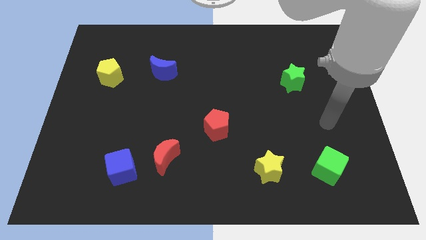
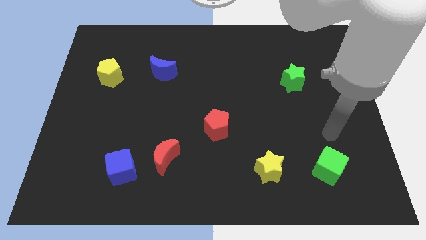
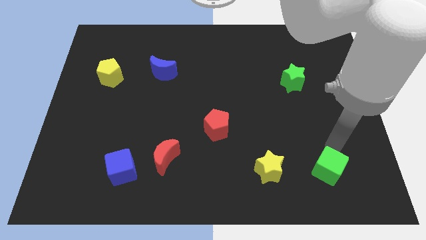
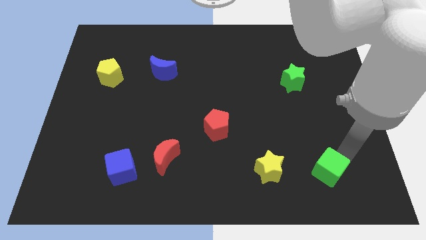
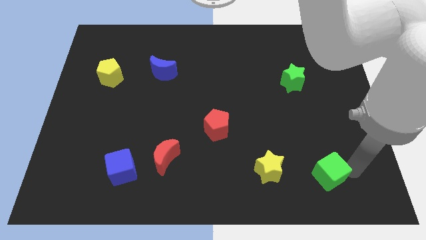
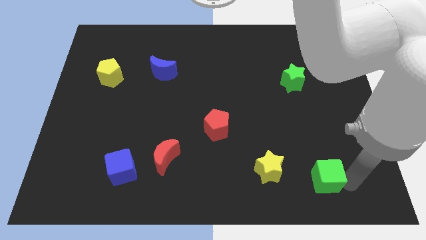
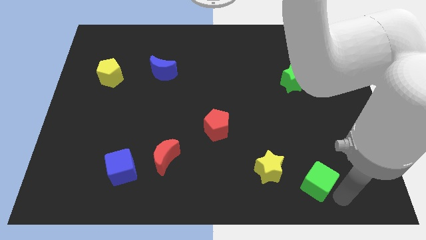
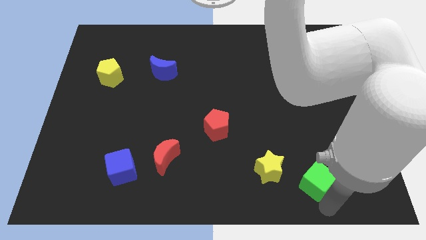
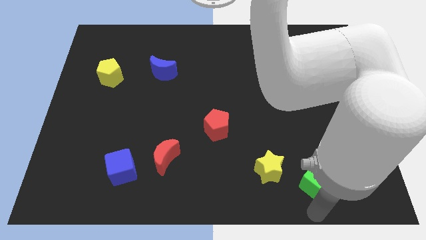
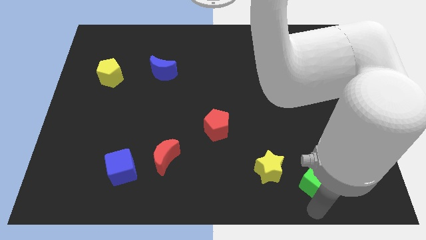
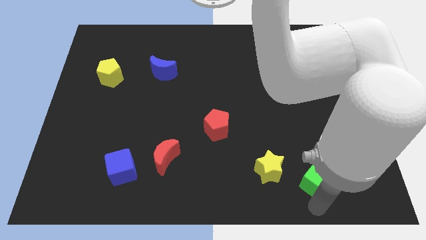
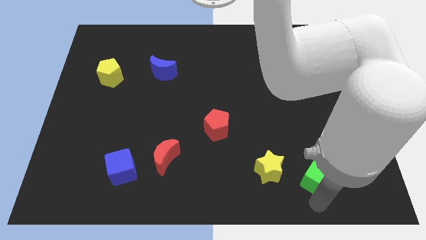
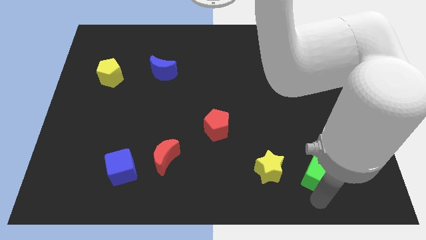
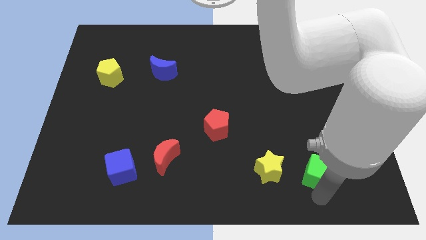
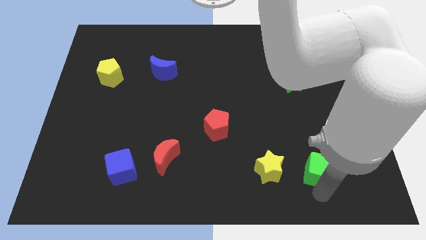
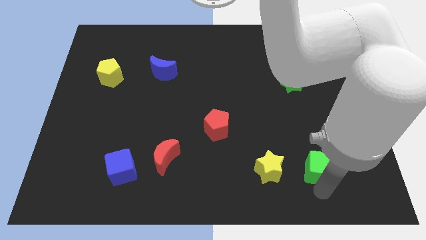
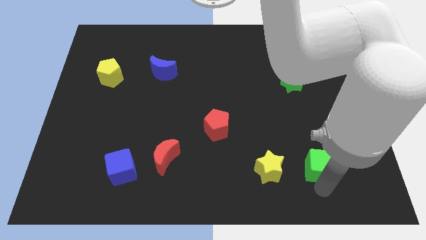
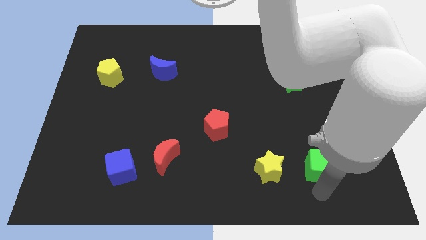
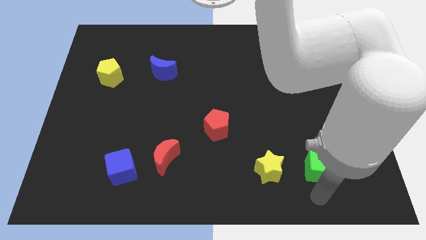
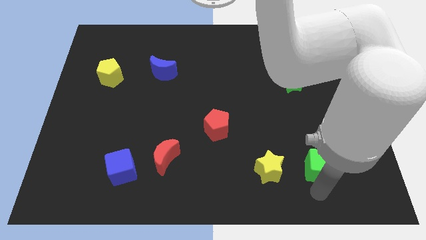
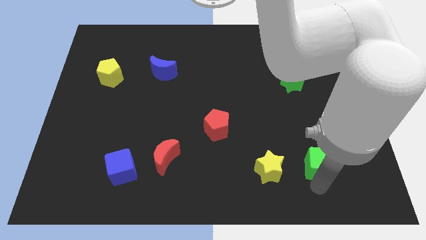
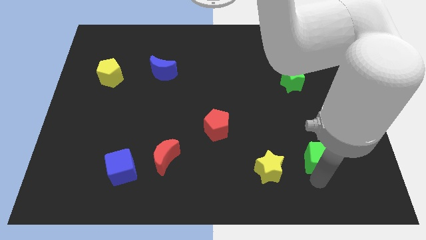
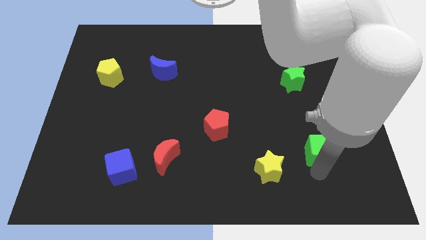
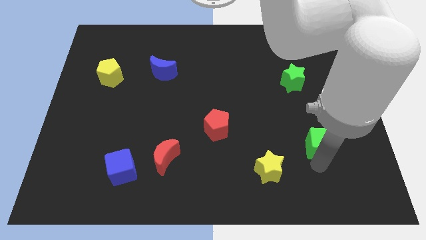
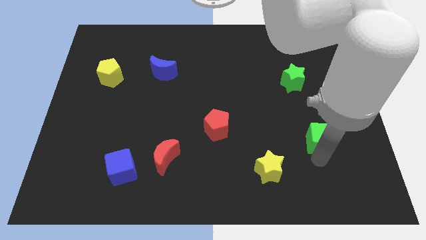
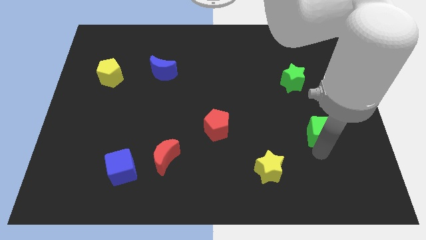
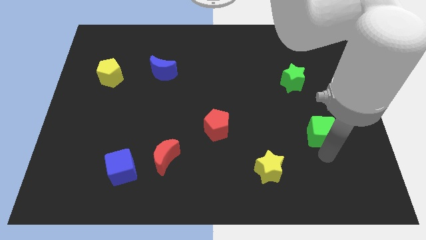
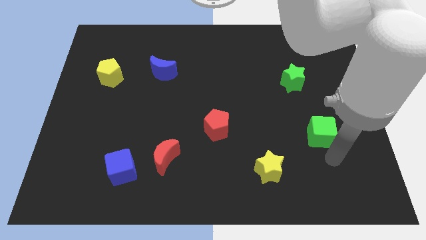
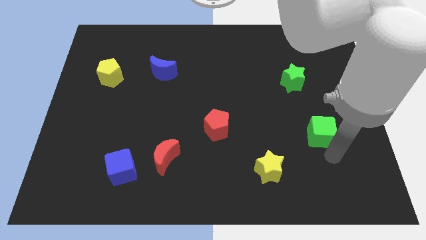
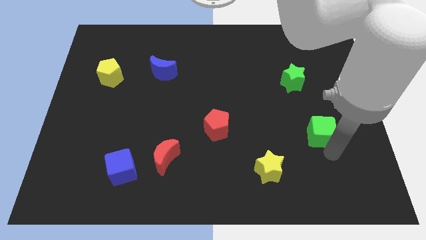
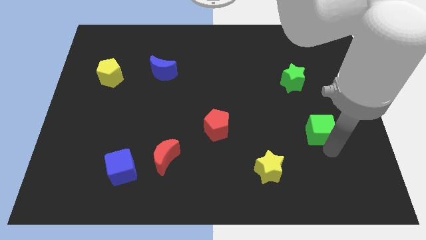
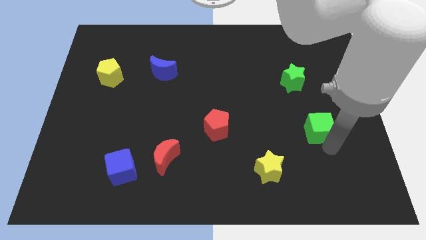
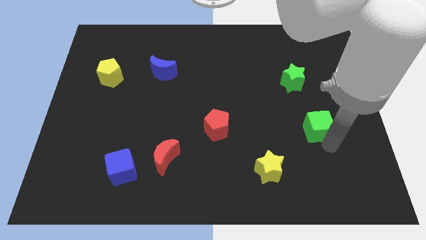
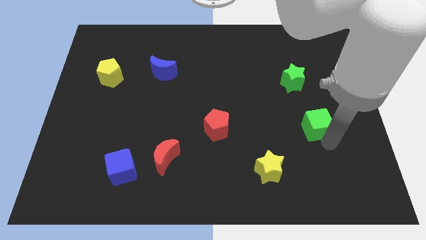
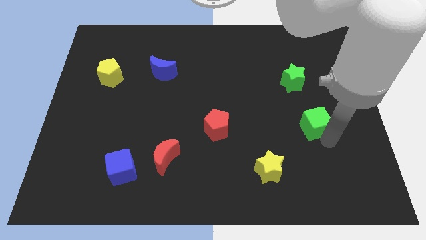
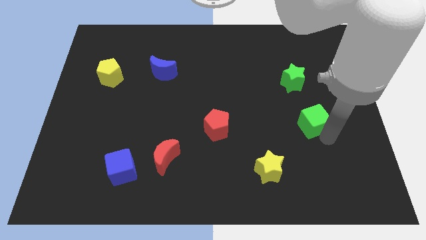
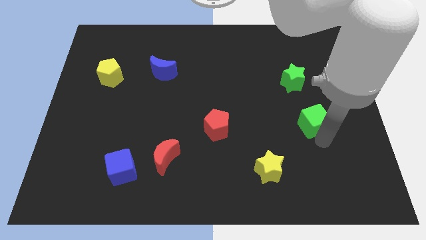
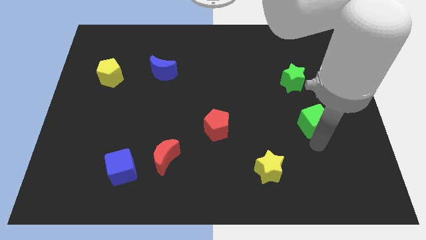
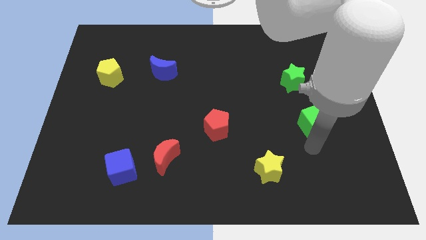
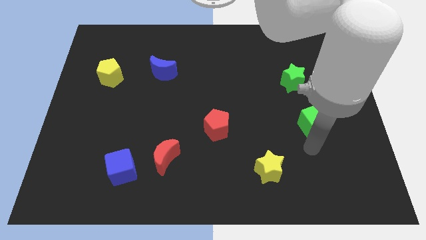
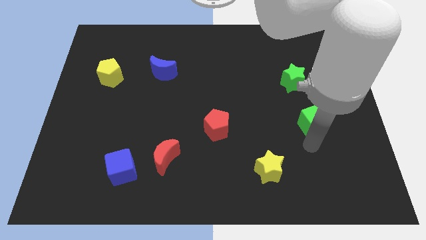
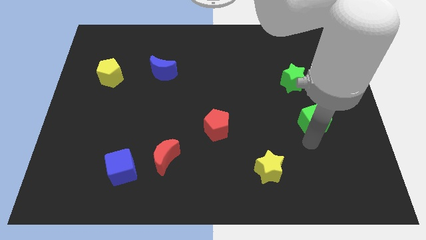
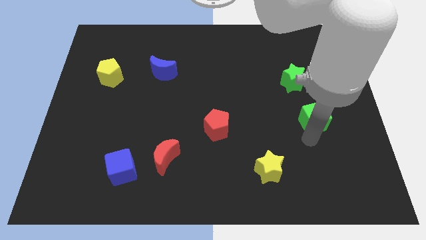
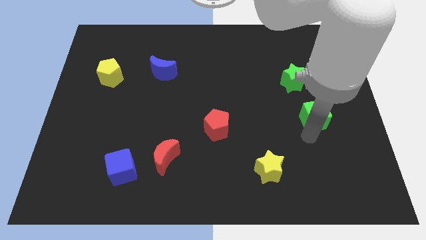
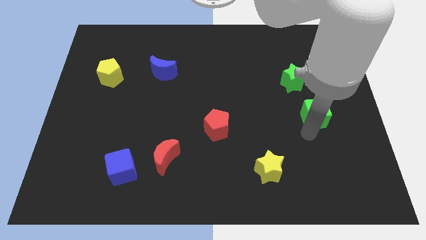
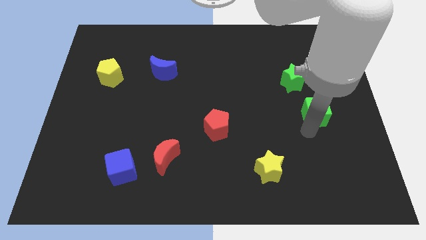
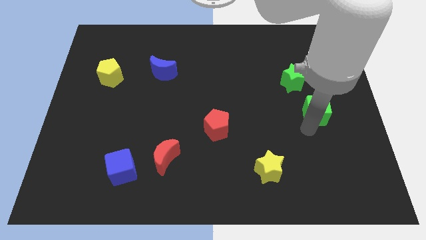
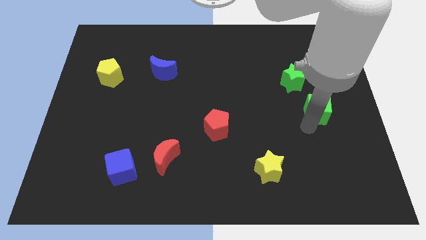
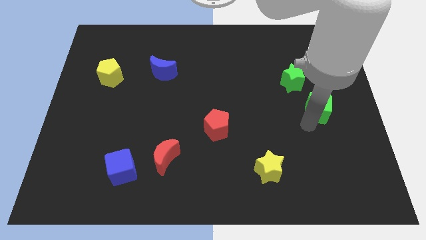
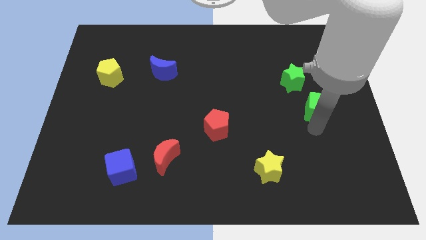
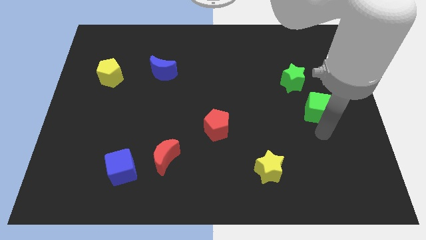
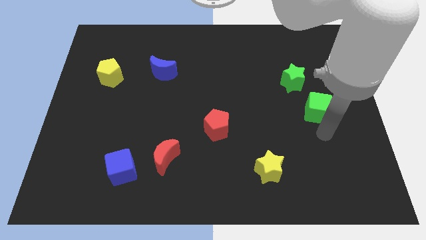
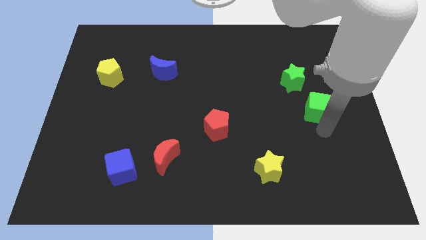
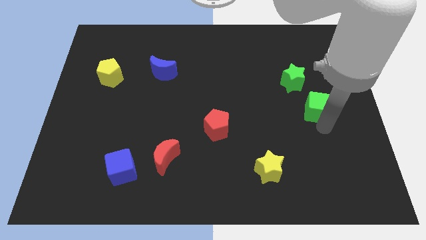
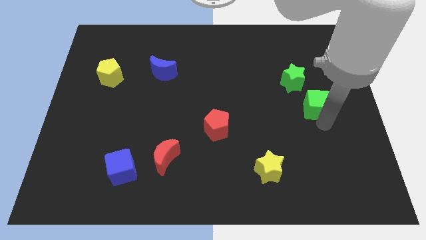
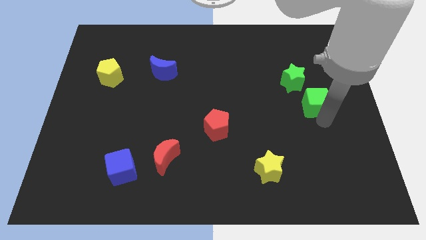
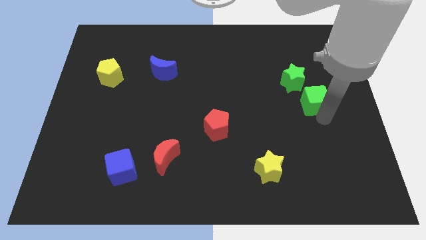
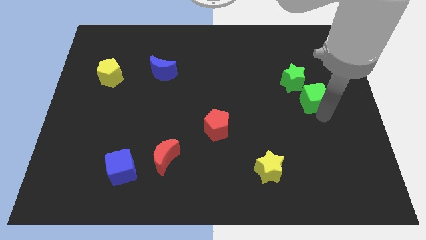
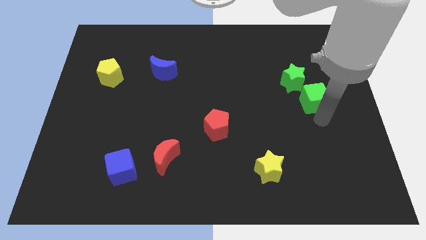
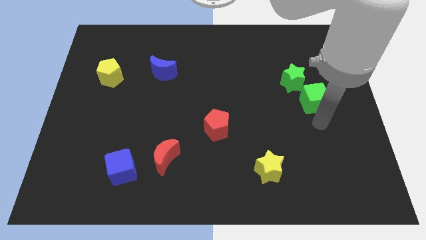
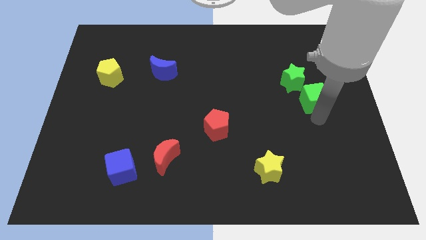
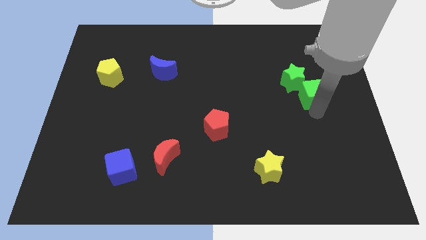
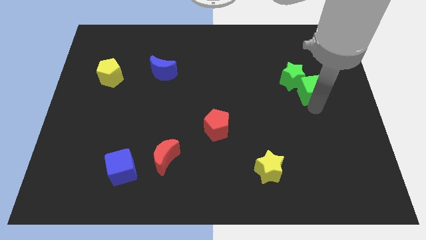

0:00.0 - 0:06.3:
slide the green cube upwards

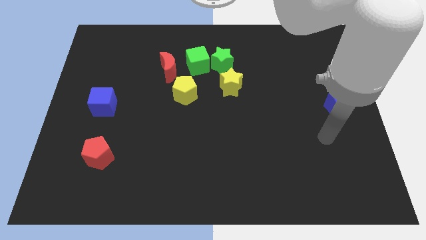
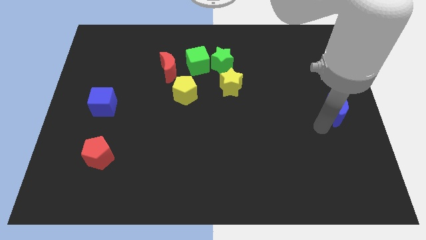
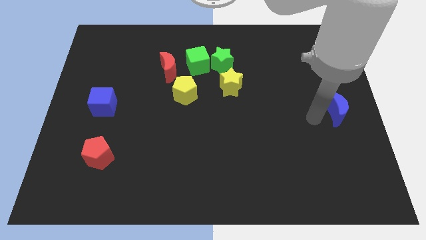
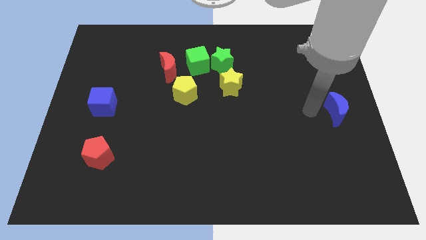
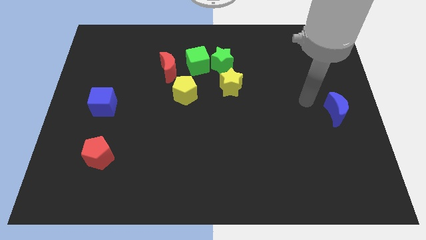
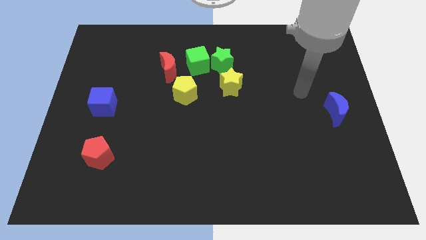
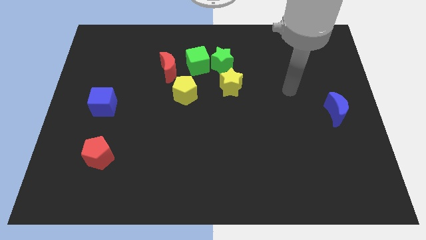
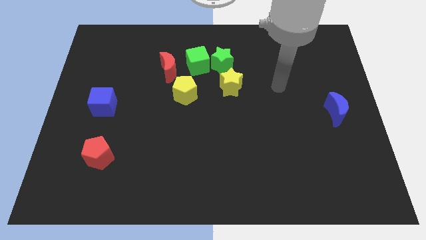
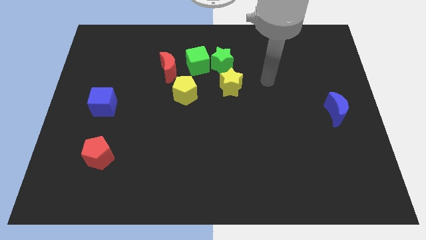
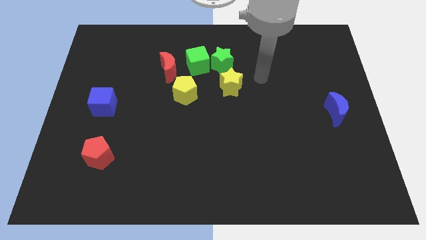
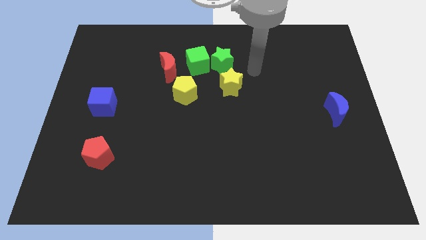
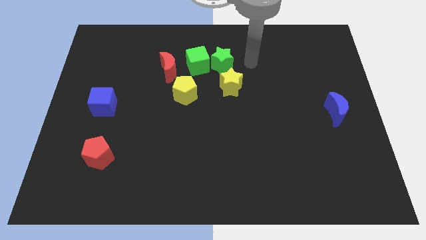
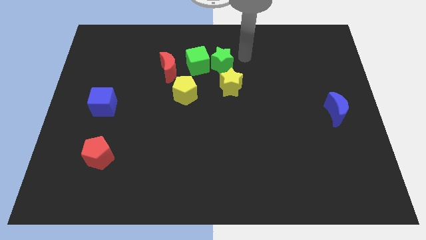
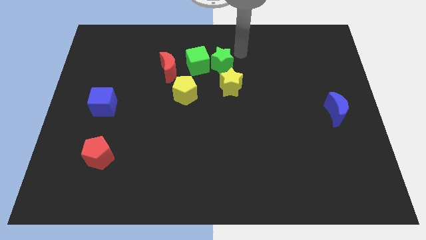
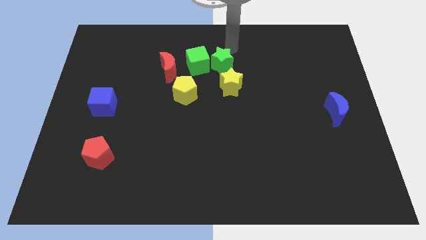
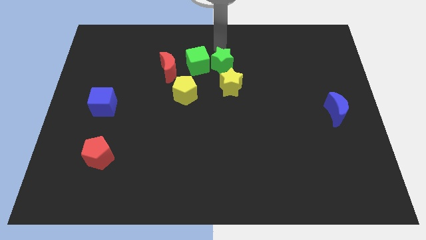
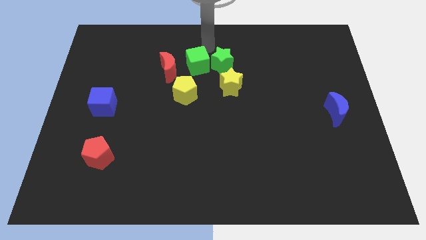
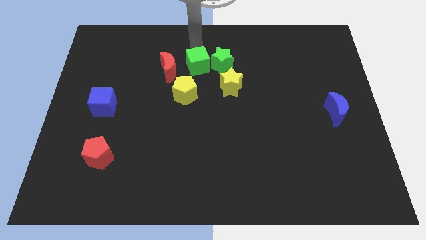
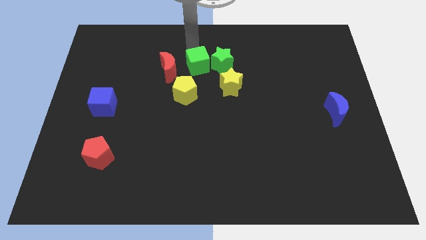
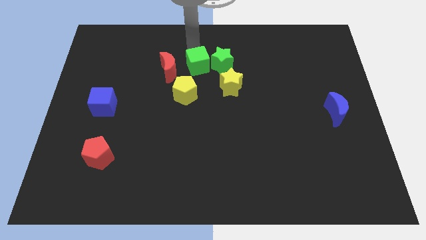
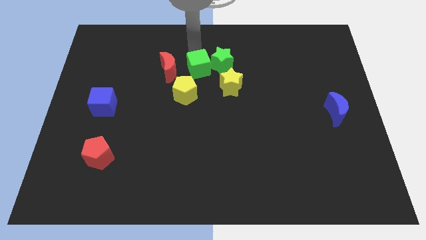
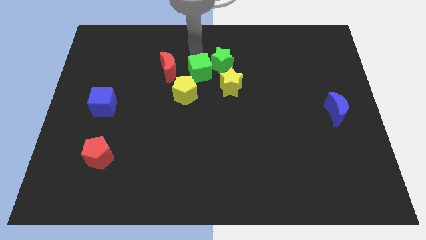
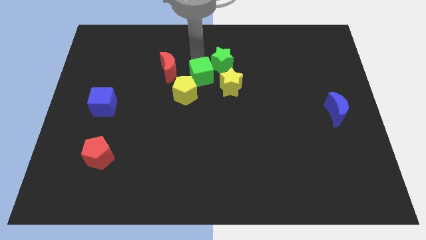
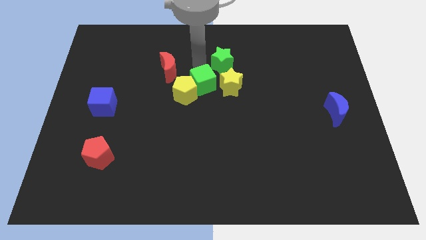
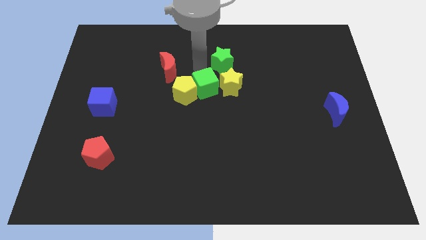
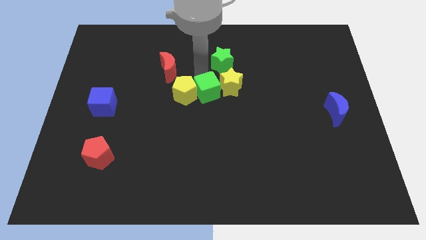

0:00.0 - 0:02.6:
push the green cube a little downwards and to the right diagonally
